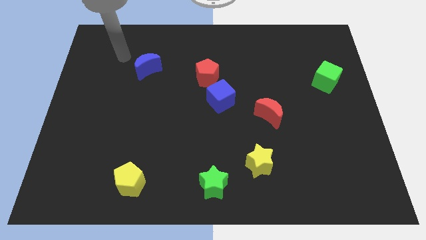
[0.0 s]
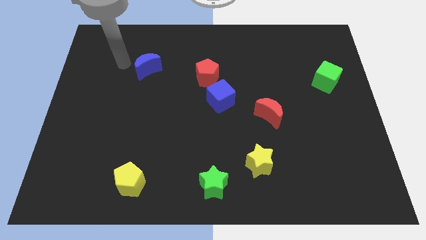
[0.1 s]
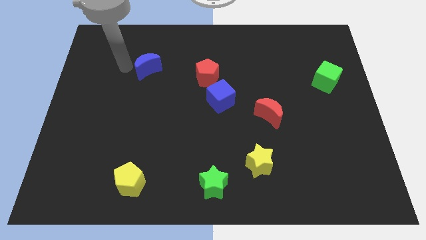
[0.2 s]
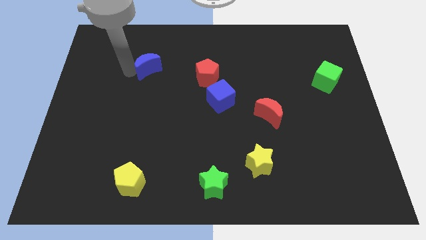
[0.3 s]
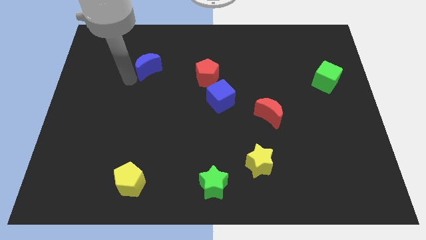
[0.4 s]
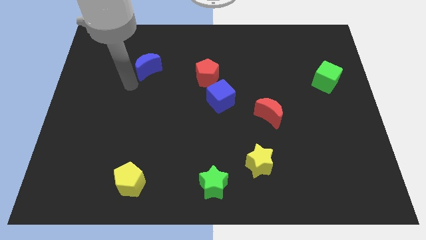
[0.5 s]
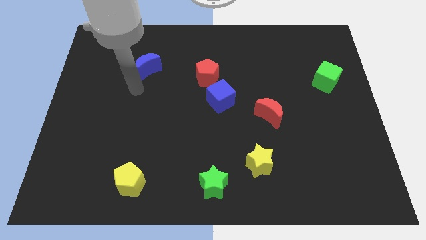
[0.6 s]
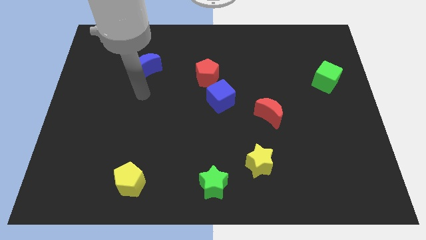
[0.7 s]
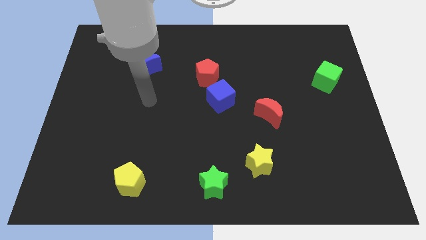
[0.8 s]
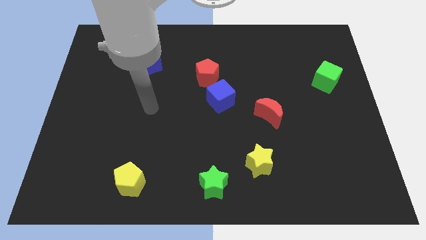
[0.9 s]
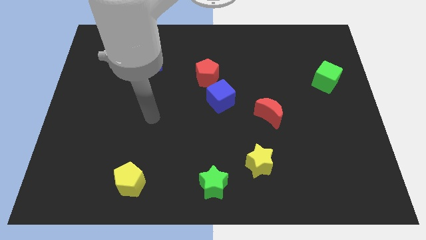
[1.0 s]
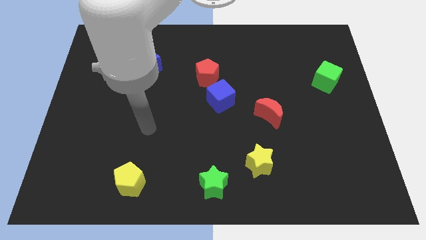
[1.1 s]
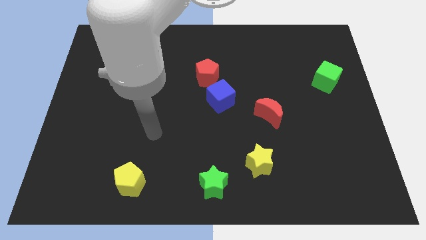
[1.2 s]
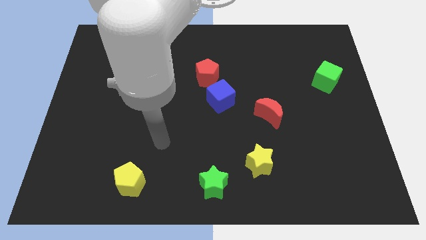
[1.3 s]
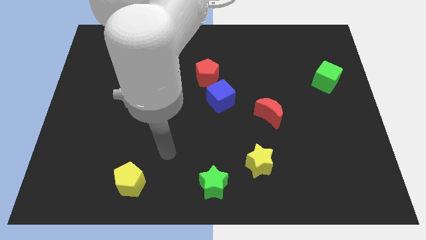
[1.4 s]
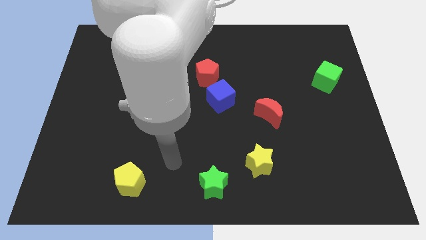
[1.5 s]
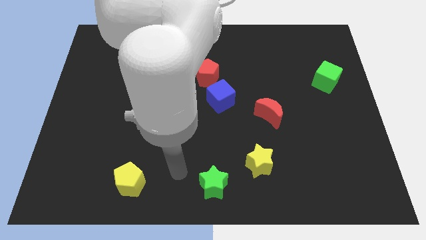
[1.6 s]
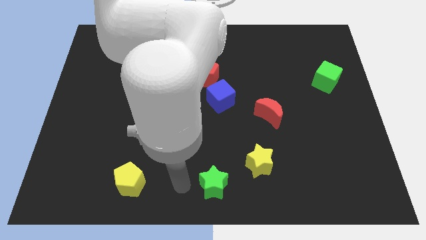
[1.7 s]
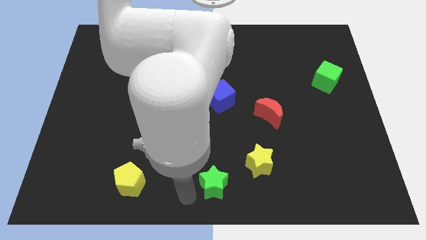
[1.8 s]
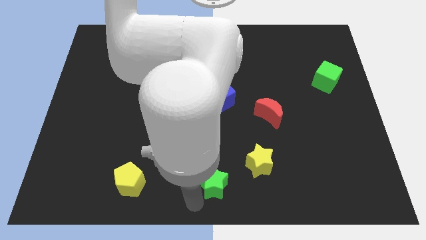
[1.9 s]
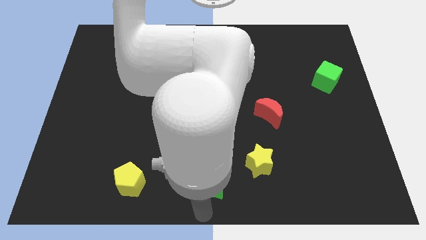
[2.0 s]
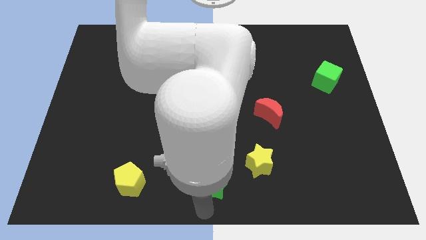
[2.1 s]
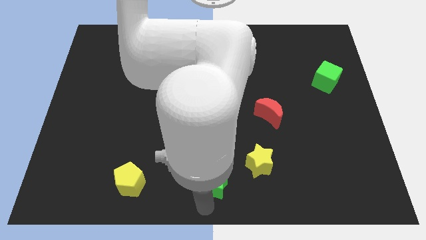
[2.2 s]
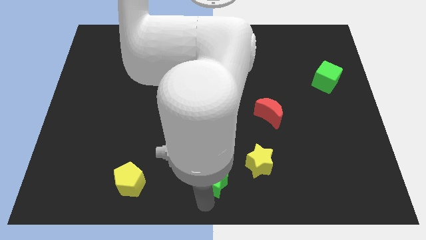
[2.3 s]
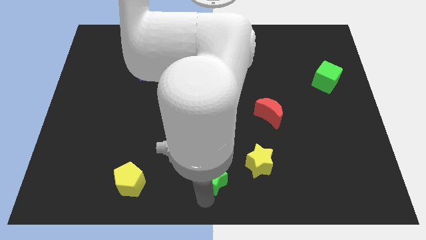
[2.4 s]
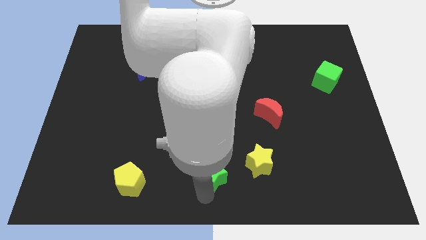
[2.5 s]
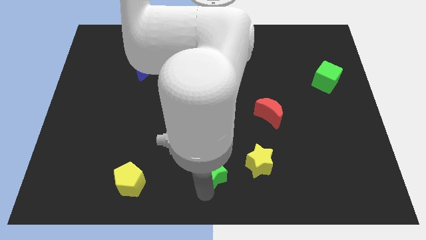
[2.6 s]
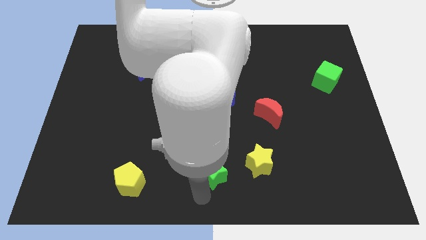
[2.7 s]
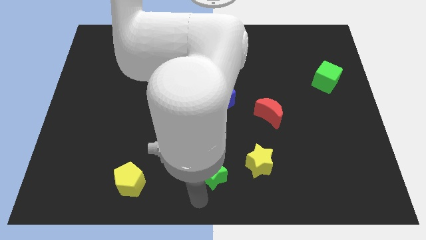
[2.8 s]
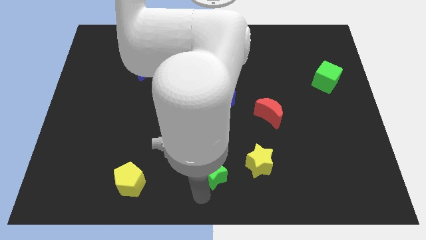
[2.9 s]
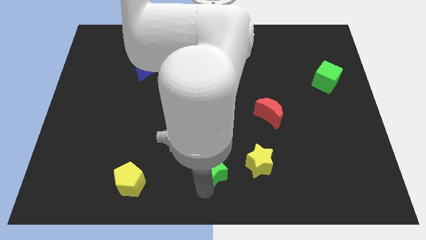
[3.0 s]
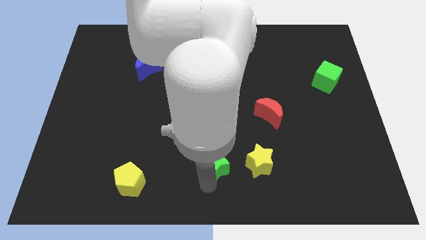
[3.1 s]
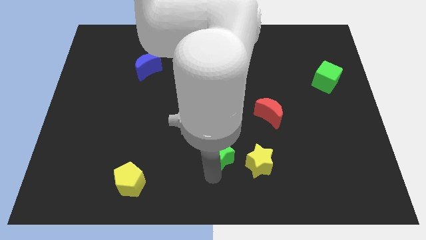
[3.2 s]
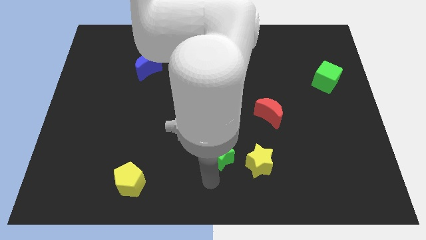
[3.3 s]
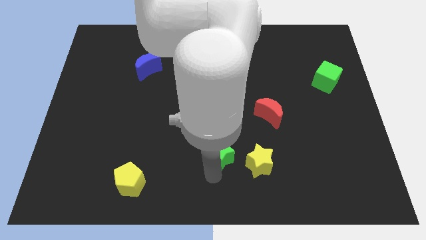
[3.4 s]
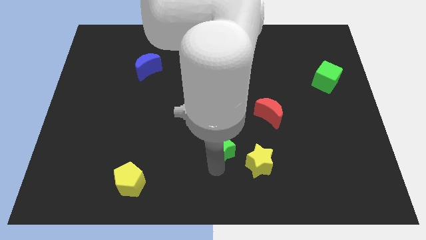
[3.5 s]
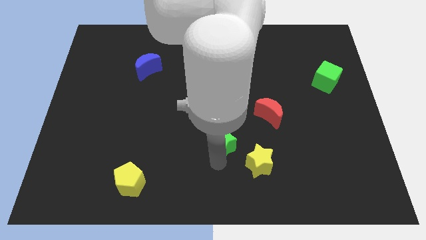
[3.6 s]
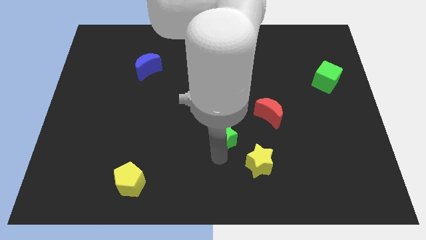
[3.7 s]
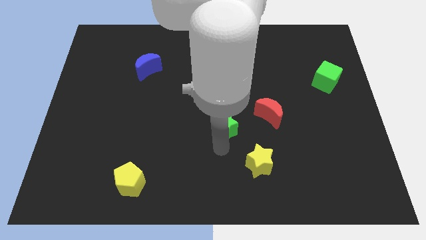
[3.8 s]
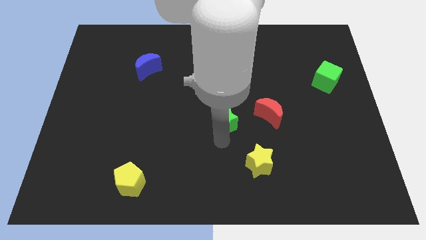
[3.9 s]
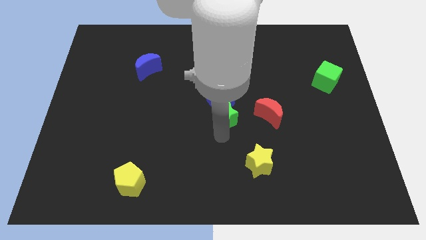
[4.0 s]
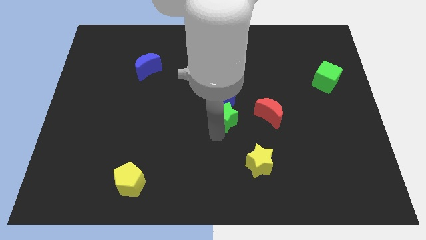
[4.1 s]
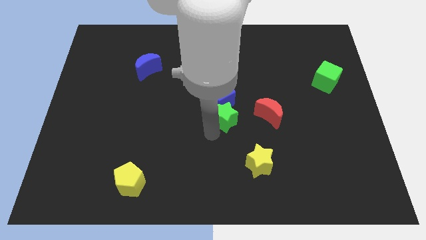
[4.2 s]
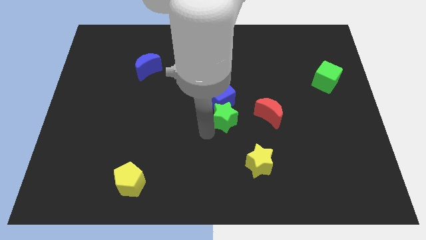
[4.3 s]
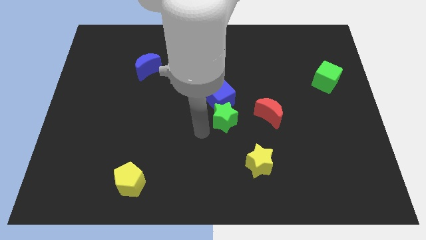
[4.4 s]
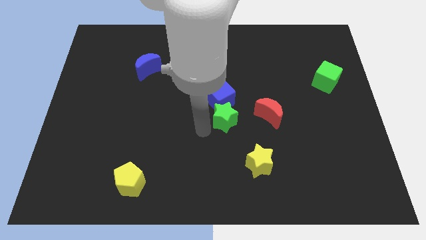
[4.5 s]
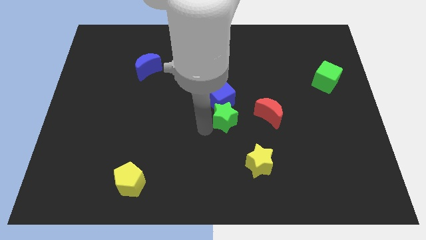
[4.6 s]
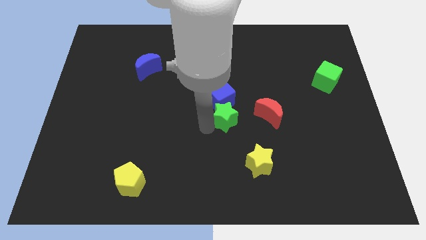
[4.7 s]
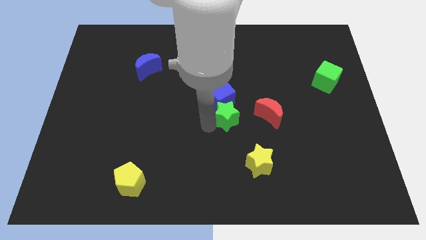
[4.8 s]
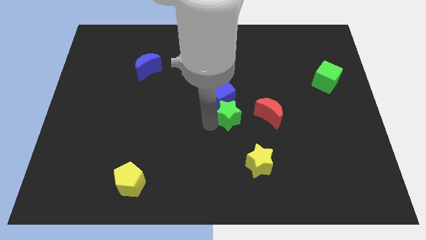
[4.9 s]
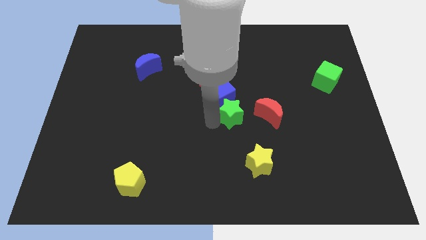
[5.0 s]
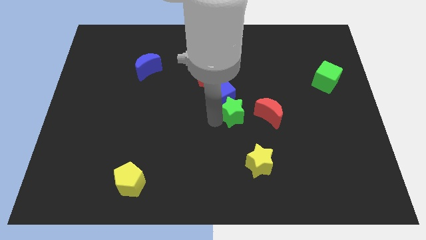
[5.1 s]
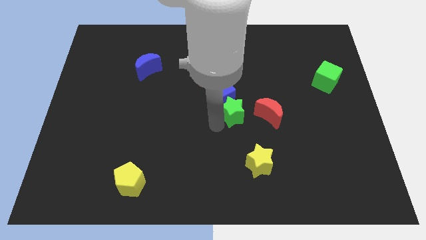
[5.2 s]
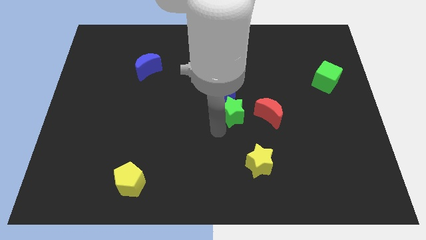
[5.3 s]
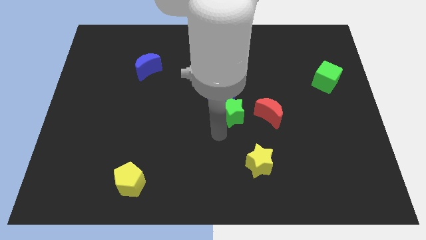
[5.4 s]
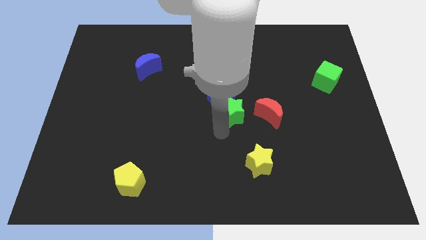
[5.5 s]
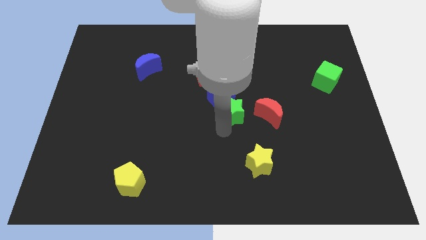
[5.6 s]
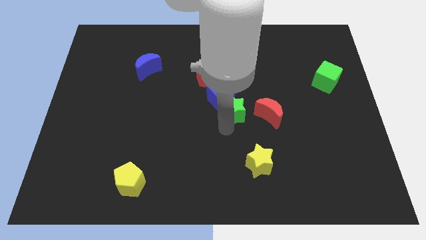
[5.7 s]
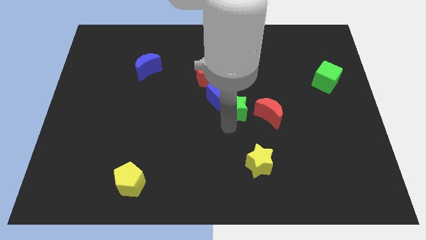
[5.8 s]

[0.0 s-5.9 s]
put the green star to the top left side of the red moon

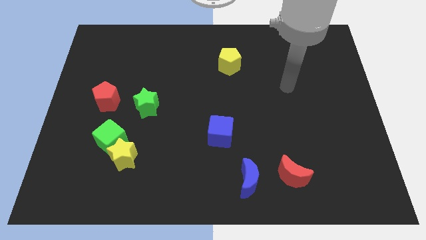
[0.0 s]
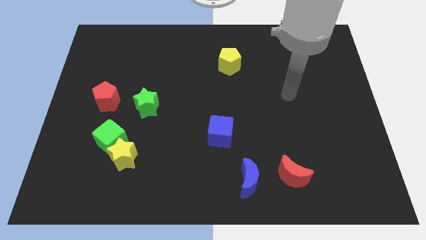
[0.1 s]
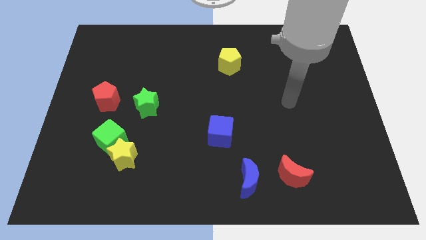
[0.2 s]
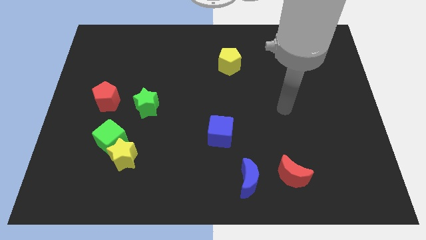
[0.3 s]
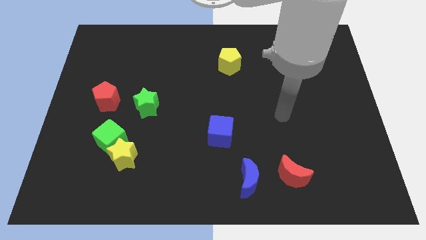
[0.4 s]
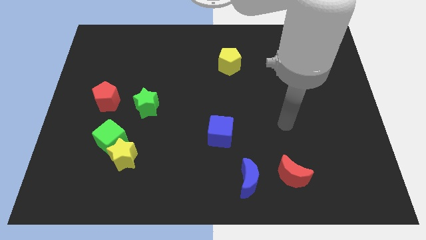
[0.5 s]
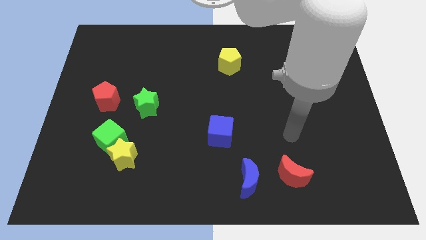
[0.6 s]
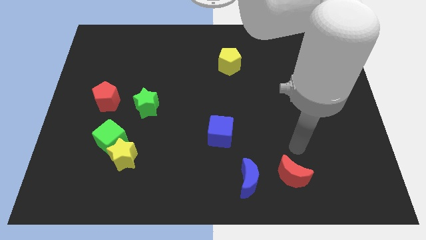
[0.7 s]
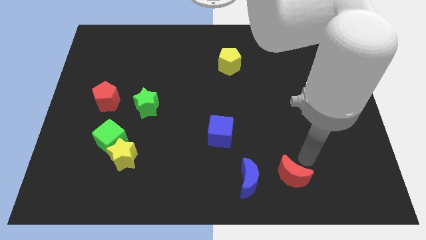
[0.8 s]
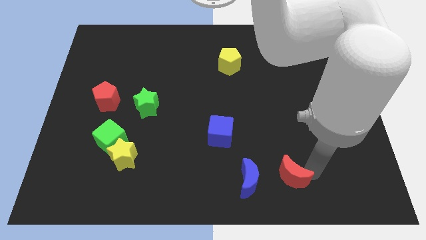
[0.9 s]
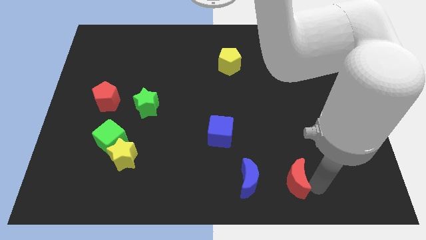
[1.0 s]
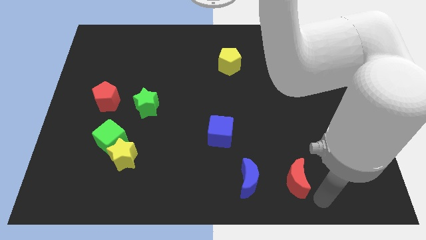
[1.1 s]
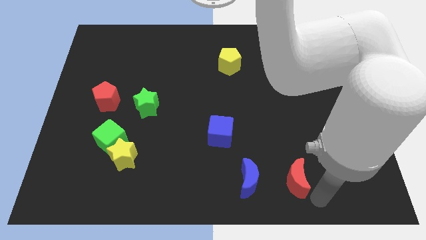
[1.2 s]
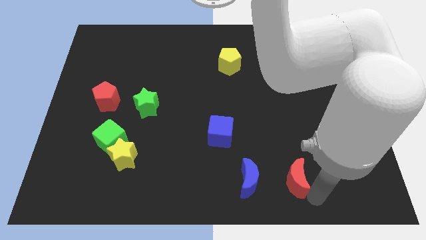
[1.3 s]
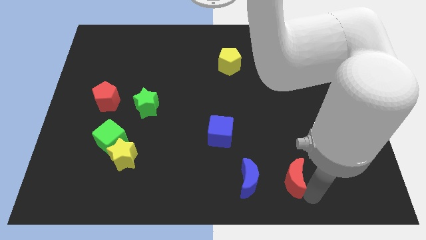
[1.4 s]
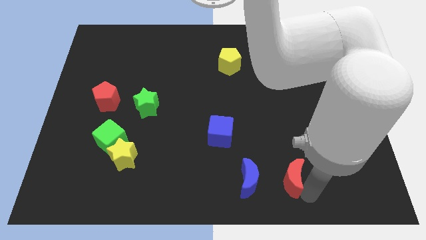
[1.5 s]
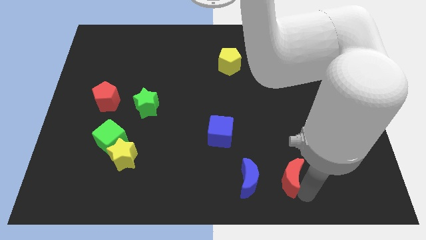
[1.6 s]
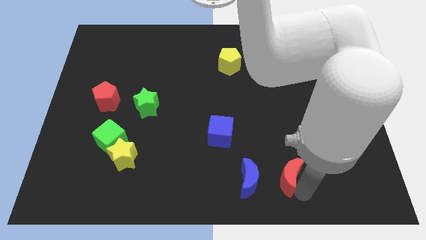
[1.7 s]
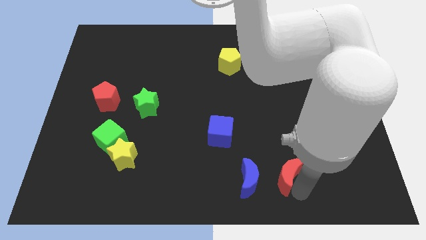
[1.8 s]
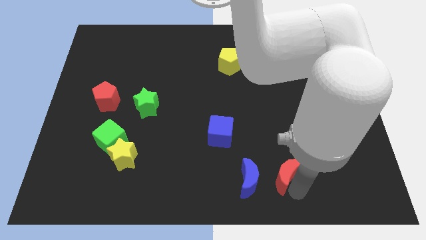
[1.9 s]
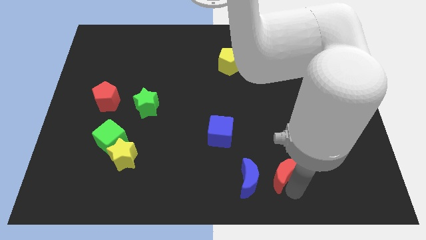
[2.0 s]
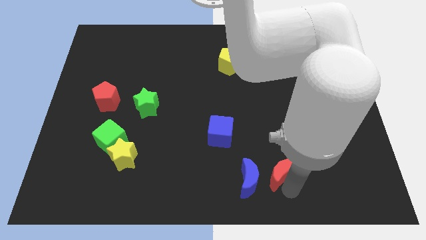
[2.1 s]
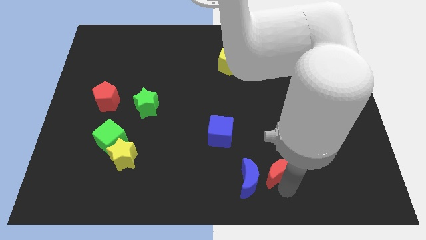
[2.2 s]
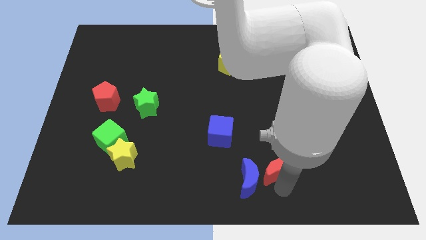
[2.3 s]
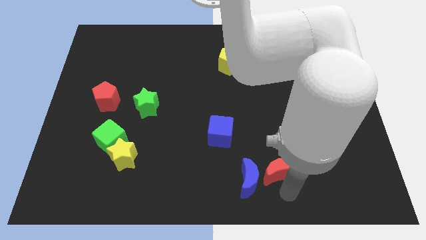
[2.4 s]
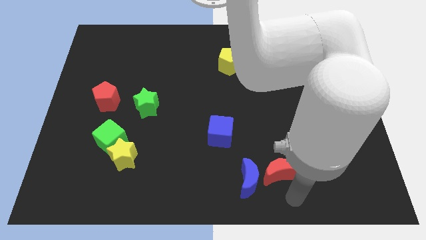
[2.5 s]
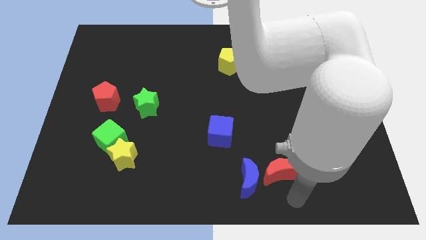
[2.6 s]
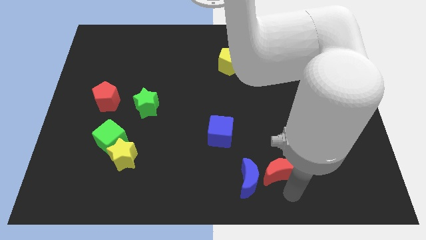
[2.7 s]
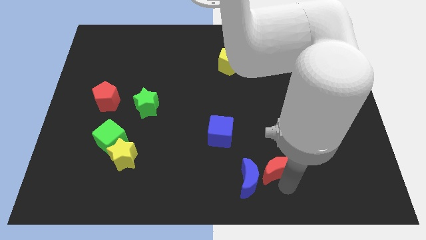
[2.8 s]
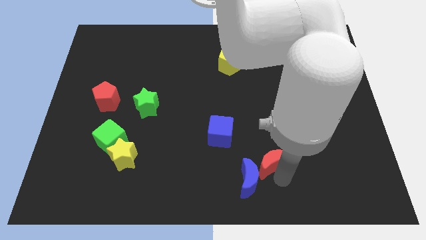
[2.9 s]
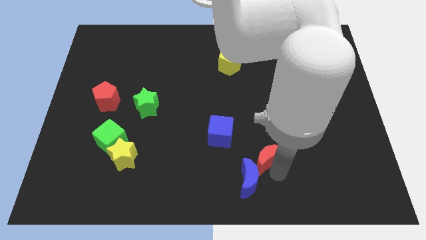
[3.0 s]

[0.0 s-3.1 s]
slide the red moon to the top of the blue moon
